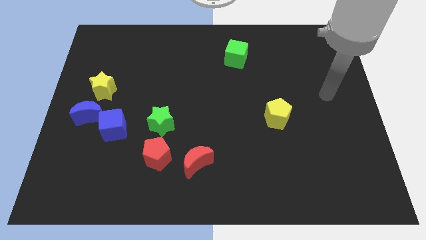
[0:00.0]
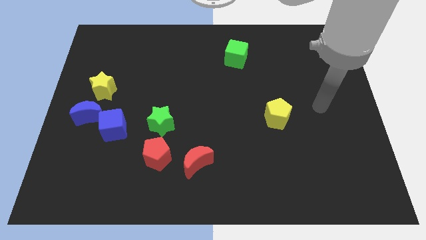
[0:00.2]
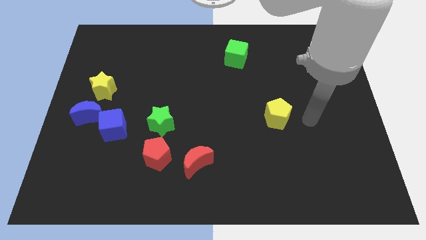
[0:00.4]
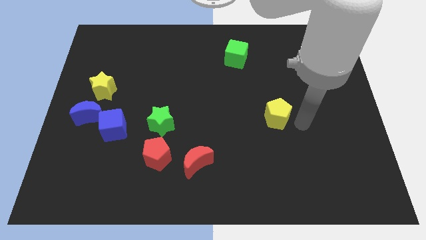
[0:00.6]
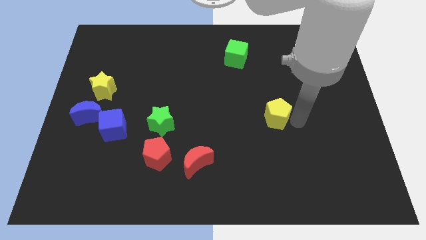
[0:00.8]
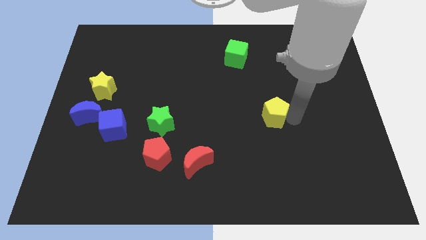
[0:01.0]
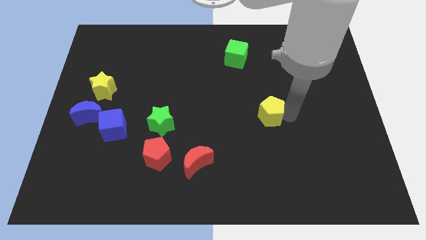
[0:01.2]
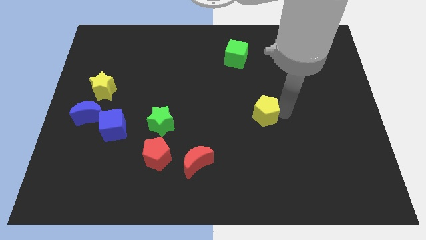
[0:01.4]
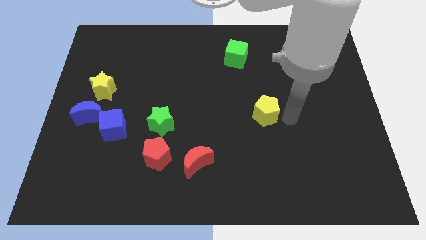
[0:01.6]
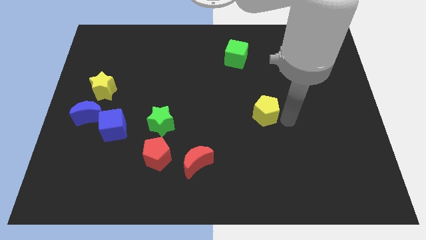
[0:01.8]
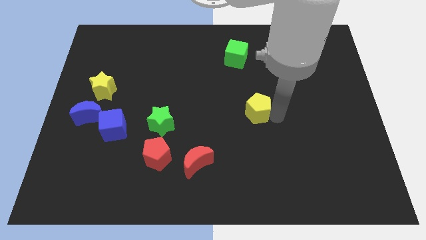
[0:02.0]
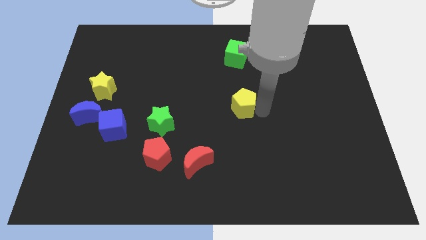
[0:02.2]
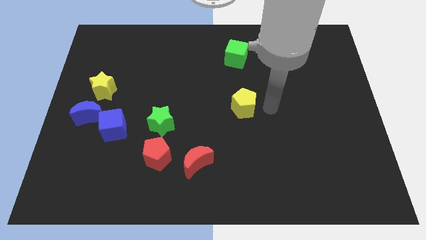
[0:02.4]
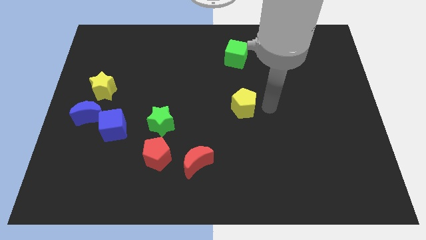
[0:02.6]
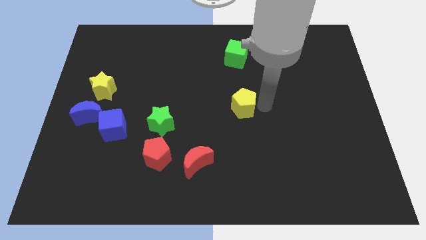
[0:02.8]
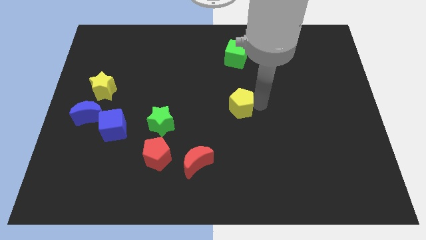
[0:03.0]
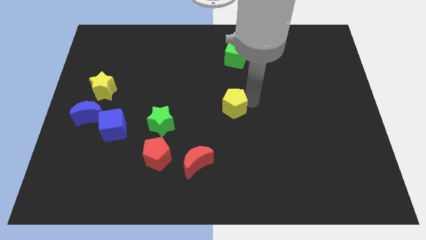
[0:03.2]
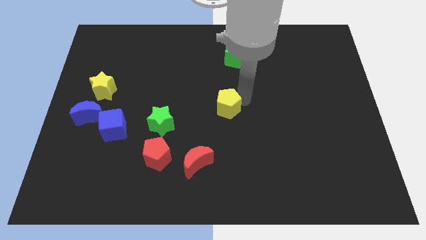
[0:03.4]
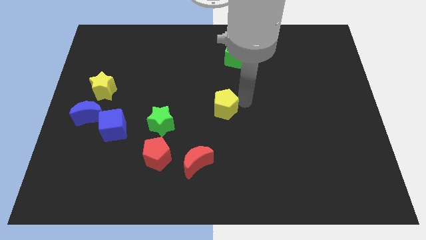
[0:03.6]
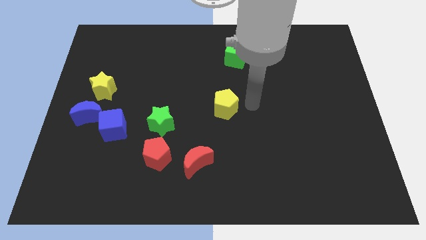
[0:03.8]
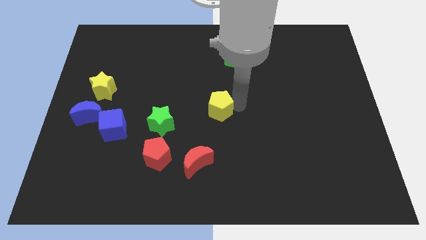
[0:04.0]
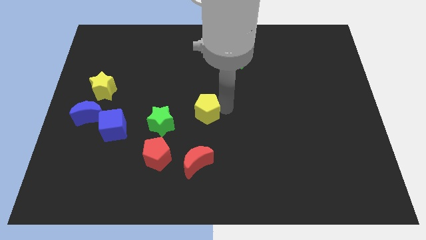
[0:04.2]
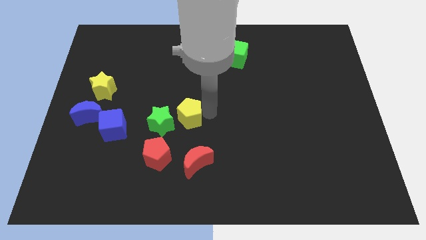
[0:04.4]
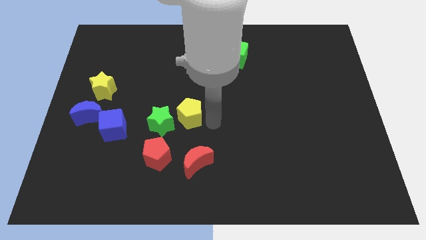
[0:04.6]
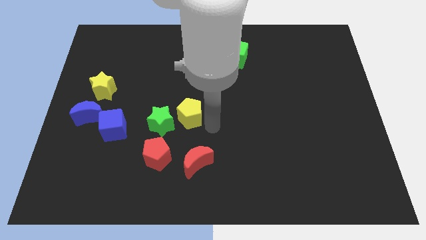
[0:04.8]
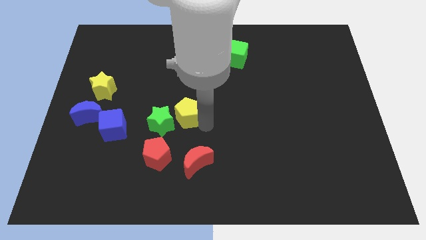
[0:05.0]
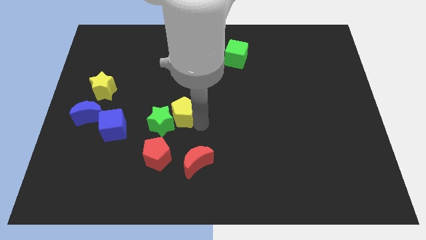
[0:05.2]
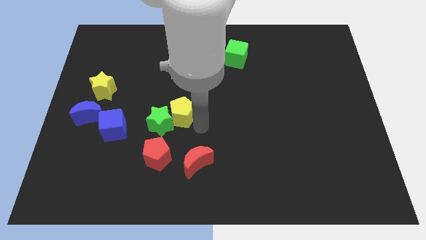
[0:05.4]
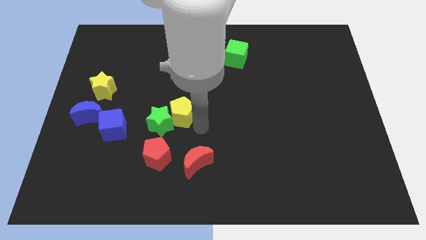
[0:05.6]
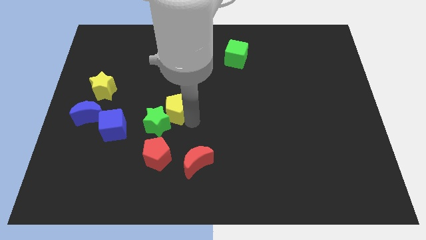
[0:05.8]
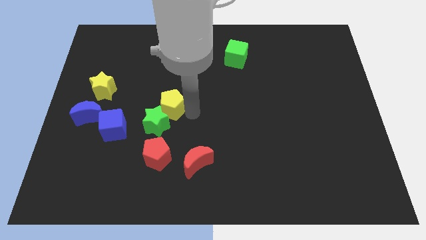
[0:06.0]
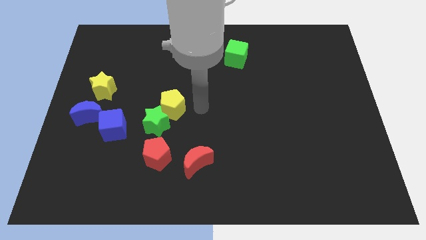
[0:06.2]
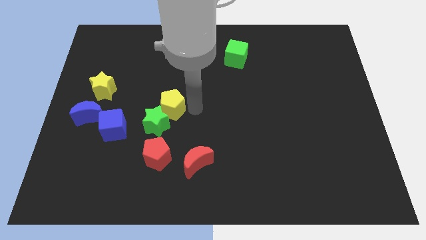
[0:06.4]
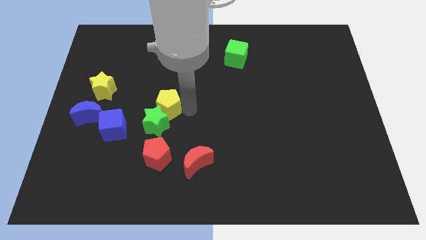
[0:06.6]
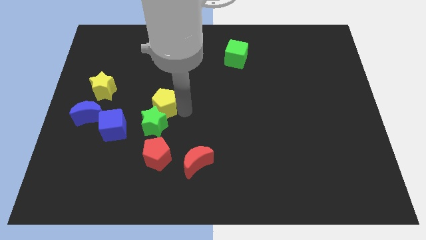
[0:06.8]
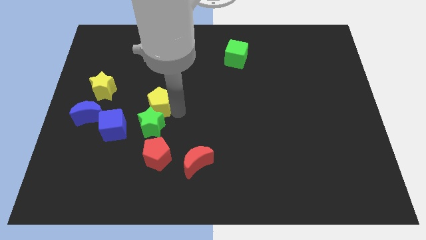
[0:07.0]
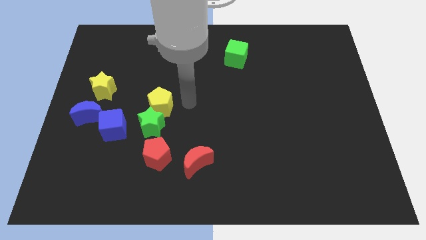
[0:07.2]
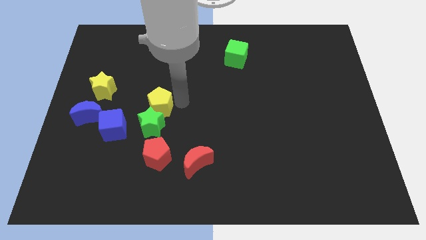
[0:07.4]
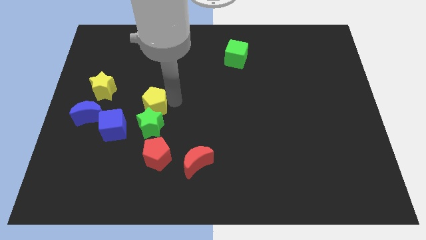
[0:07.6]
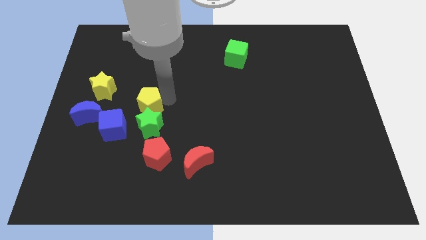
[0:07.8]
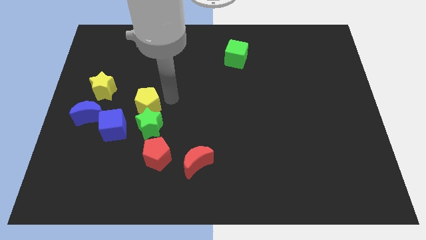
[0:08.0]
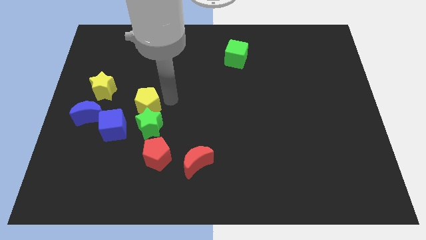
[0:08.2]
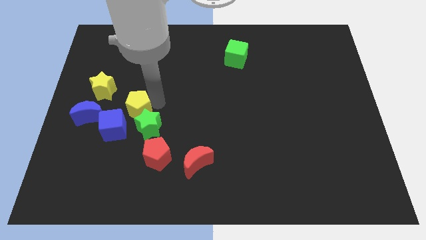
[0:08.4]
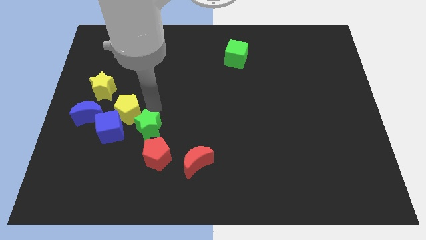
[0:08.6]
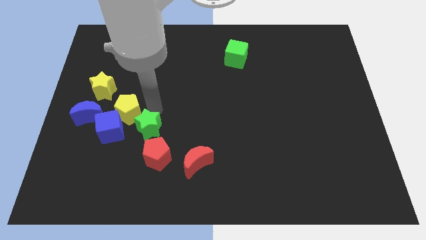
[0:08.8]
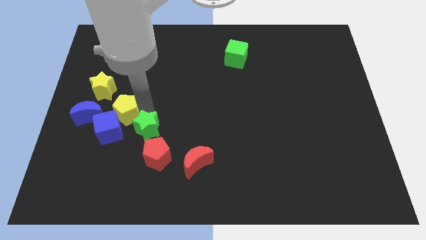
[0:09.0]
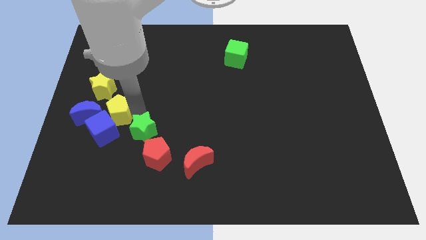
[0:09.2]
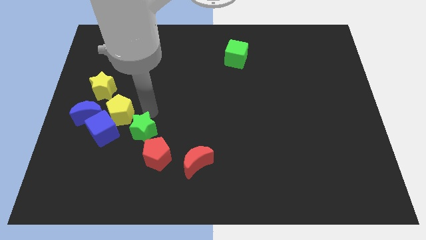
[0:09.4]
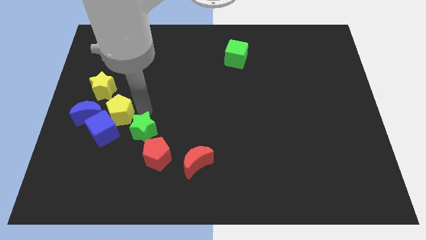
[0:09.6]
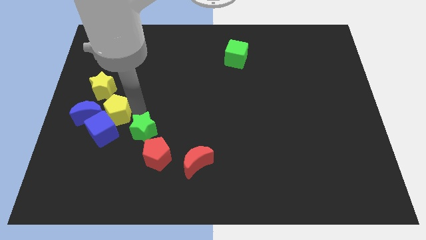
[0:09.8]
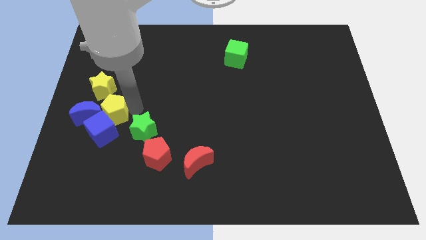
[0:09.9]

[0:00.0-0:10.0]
push the yellow pentagon close to the blue moon

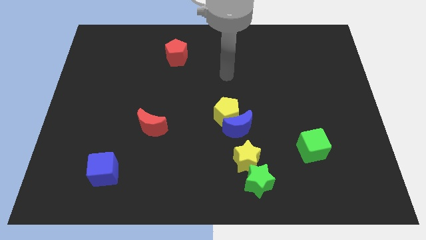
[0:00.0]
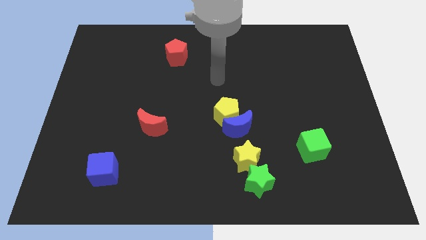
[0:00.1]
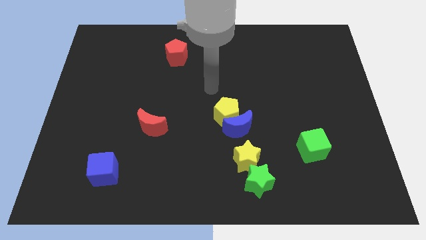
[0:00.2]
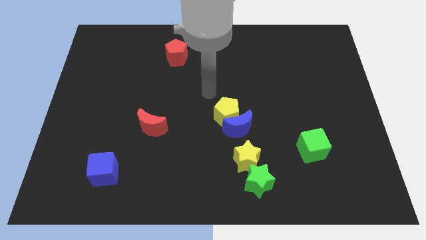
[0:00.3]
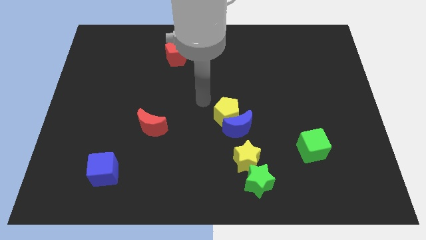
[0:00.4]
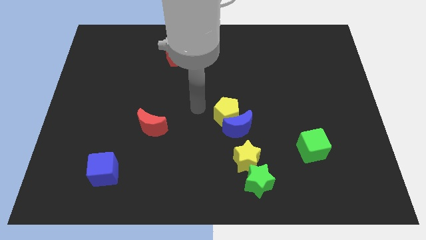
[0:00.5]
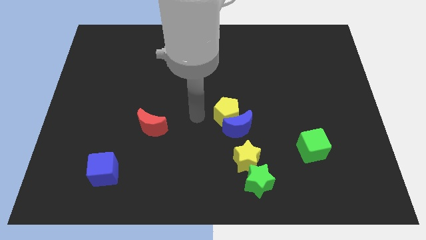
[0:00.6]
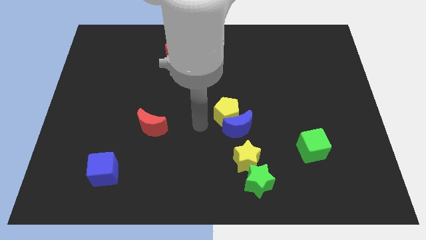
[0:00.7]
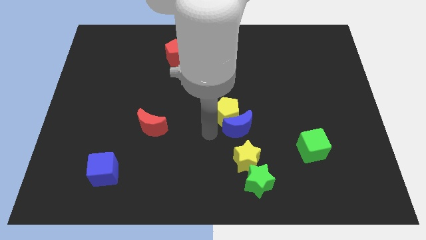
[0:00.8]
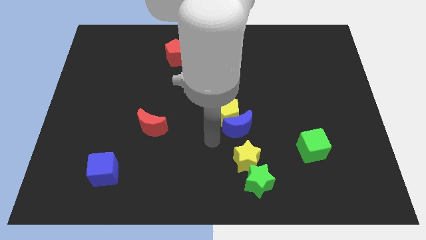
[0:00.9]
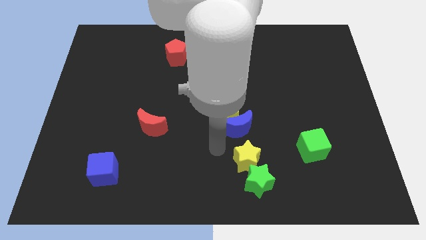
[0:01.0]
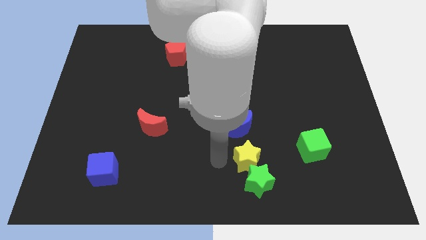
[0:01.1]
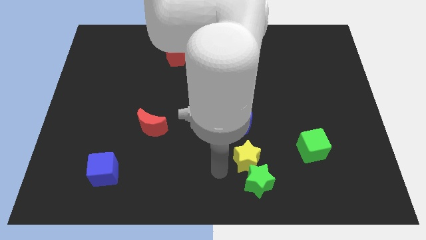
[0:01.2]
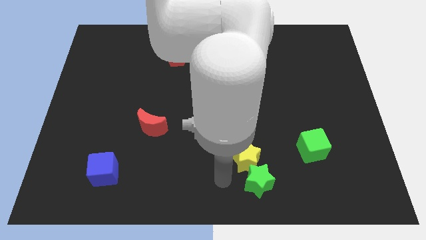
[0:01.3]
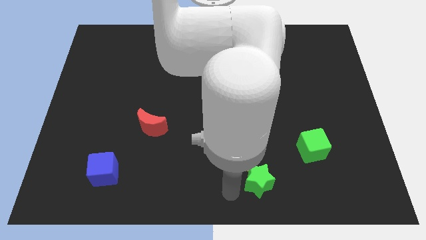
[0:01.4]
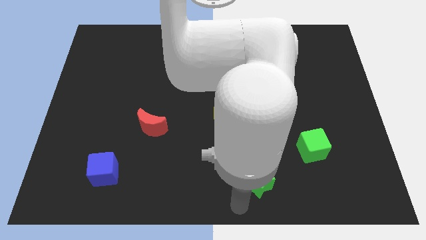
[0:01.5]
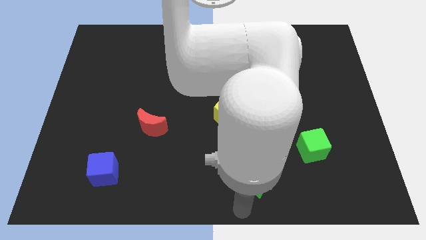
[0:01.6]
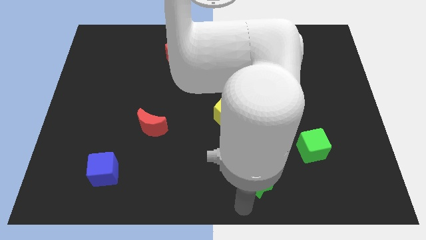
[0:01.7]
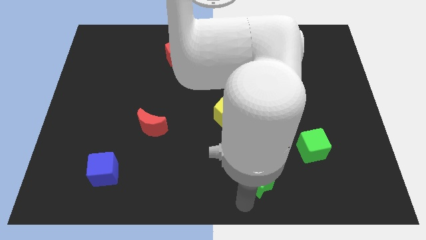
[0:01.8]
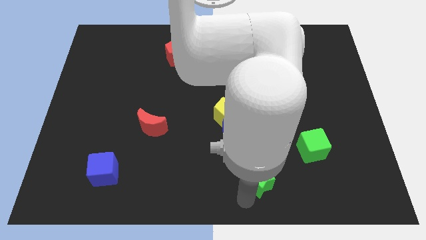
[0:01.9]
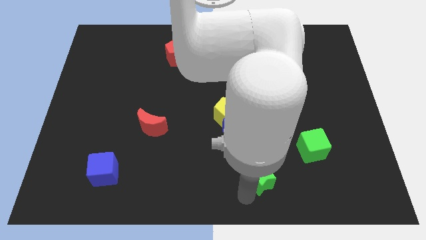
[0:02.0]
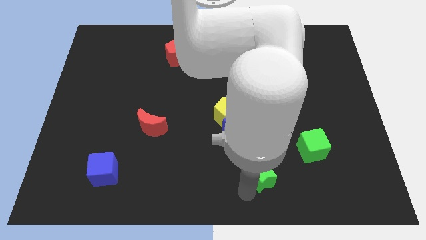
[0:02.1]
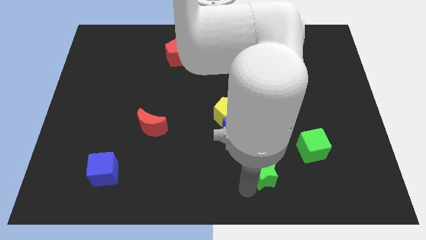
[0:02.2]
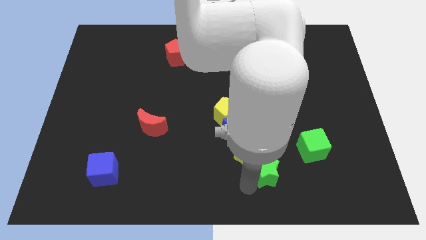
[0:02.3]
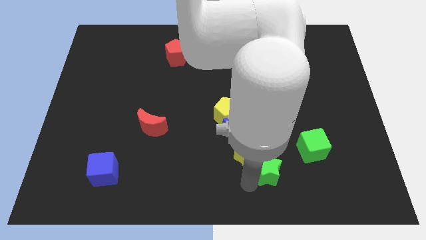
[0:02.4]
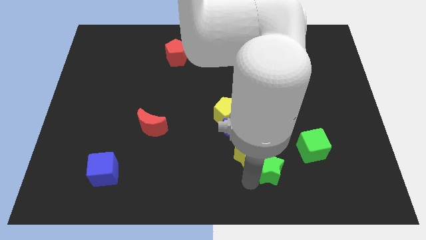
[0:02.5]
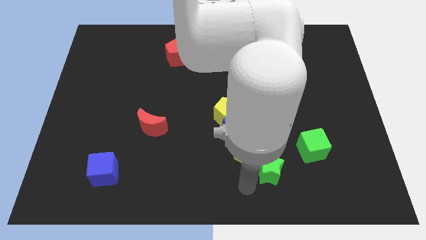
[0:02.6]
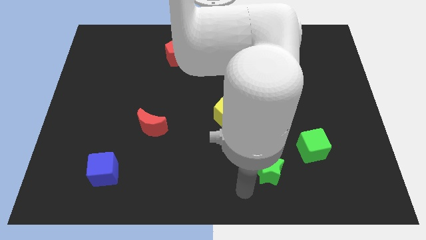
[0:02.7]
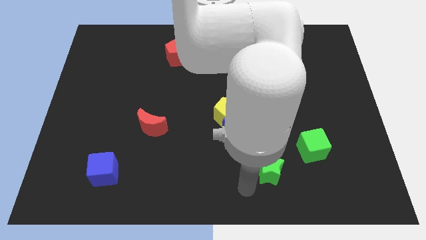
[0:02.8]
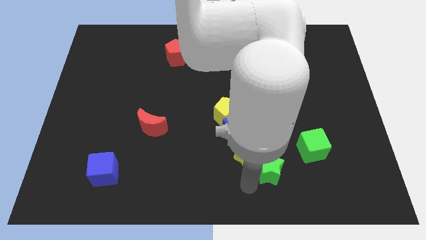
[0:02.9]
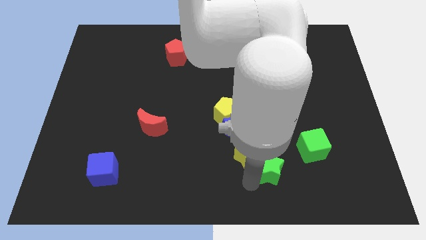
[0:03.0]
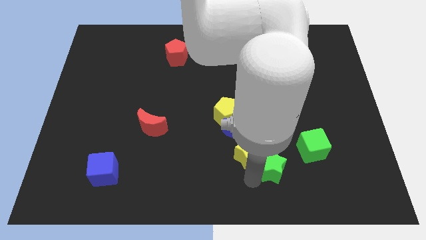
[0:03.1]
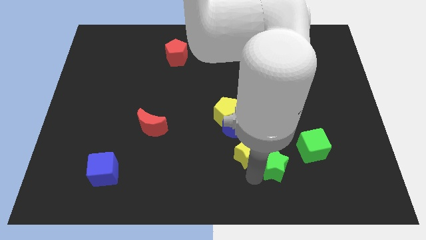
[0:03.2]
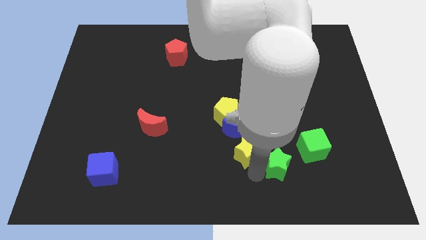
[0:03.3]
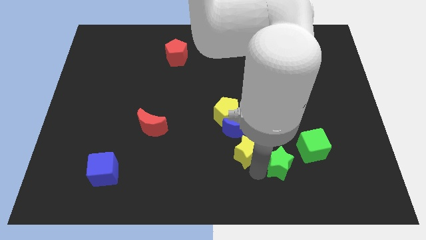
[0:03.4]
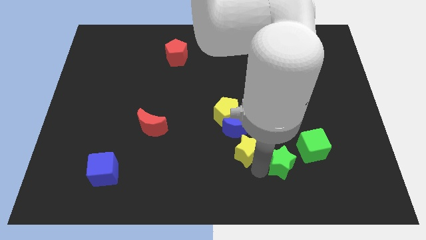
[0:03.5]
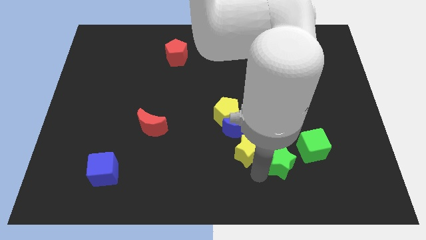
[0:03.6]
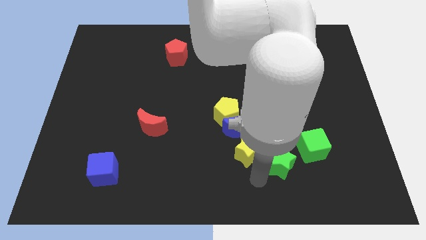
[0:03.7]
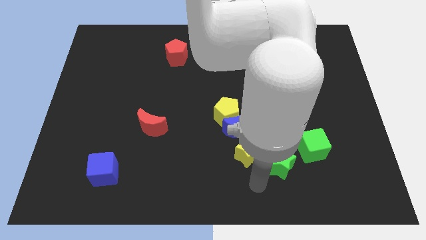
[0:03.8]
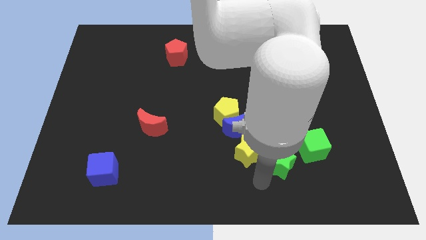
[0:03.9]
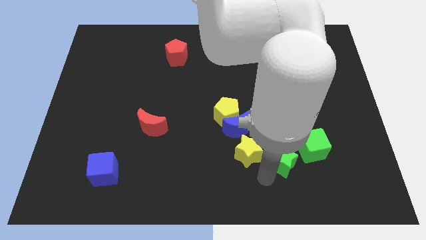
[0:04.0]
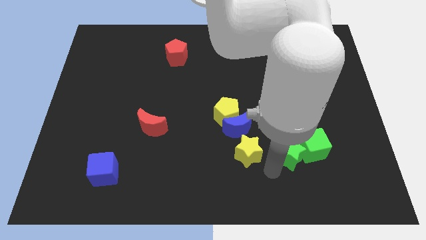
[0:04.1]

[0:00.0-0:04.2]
put the green star close to the green cube
